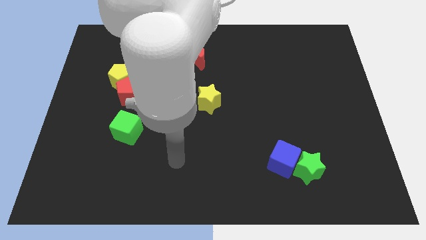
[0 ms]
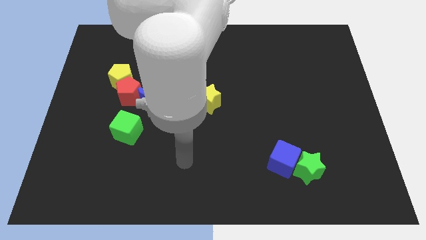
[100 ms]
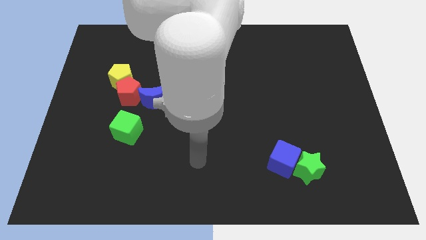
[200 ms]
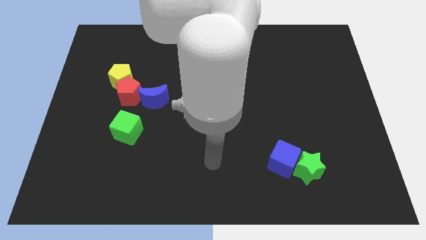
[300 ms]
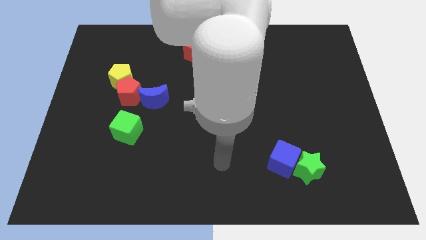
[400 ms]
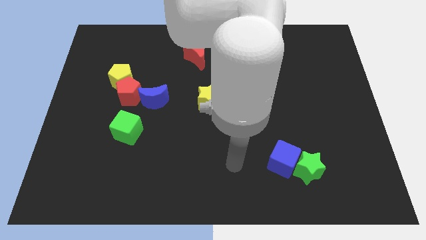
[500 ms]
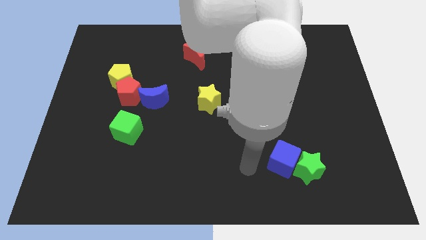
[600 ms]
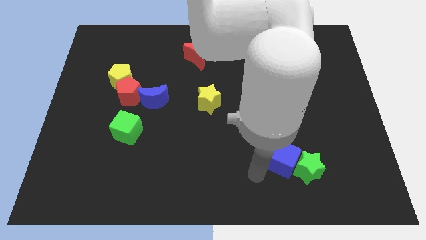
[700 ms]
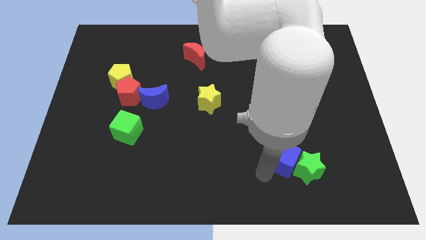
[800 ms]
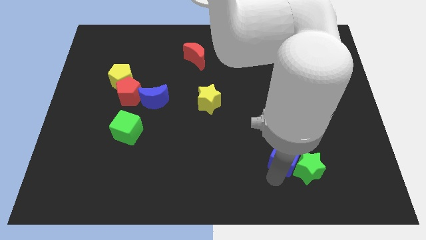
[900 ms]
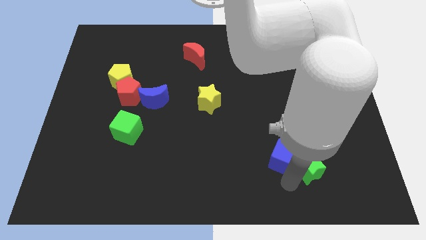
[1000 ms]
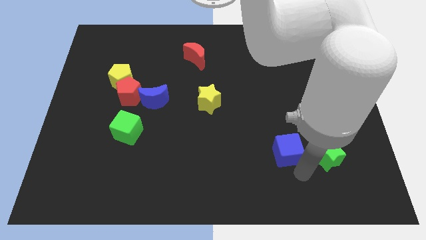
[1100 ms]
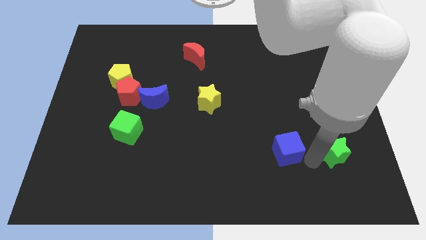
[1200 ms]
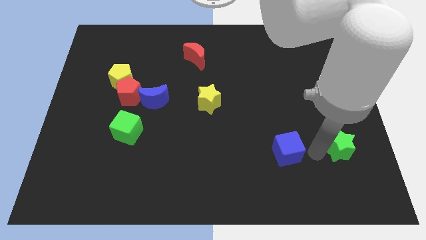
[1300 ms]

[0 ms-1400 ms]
move the blue cube away from the green star

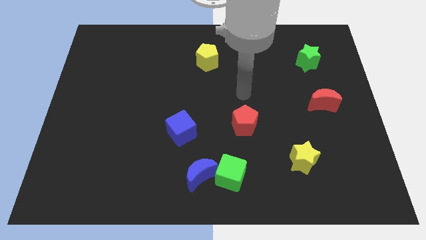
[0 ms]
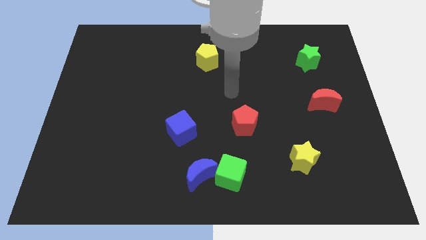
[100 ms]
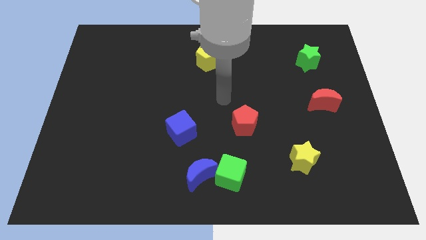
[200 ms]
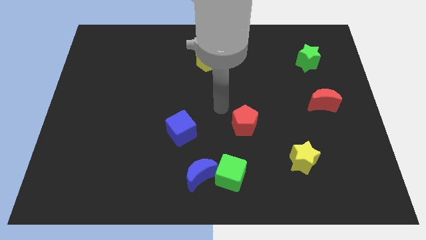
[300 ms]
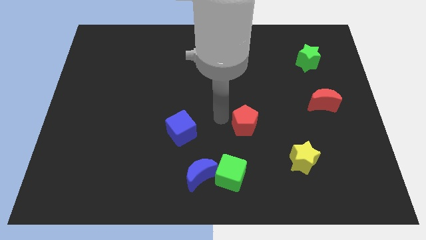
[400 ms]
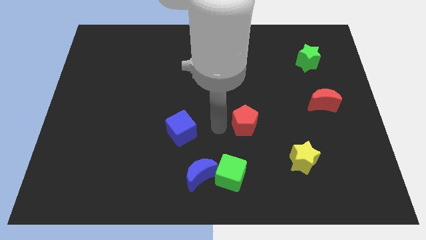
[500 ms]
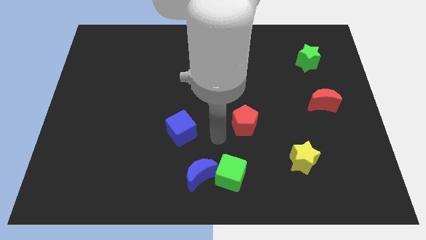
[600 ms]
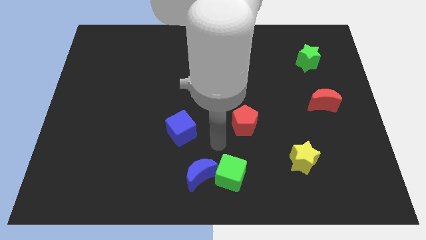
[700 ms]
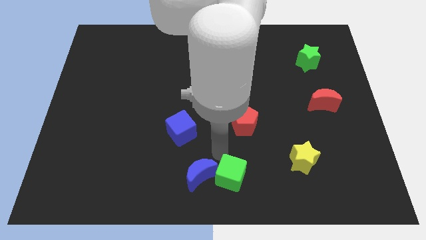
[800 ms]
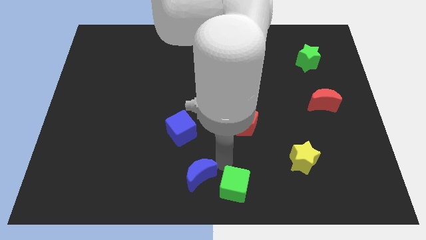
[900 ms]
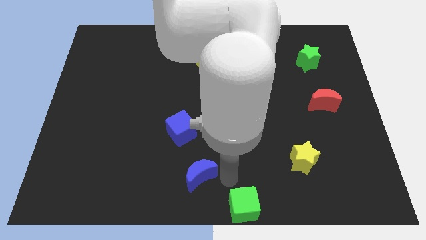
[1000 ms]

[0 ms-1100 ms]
separate the blue moon from the green cube

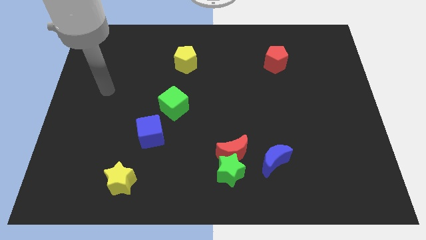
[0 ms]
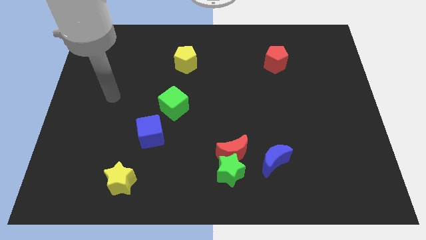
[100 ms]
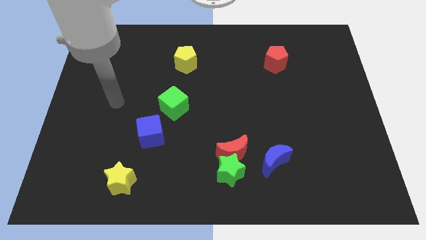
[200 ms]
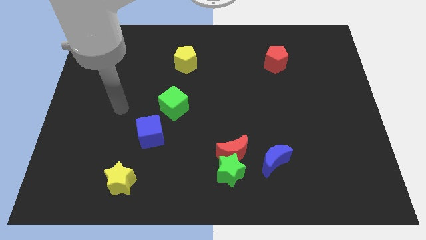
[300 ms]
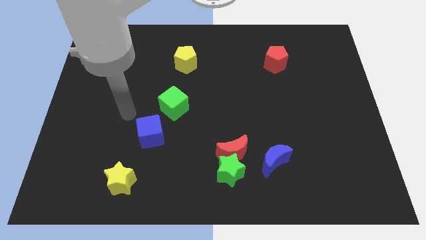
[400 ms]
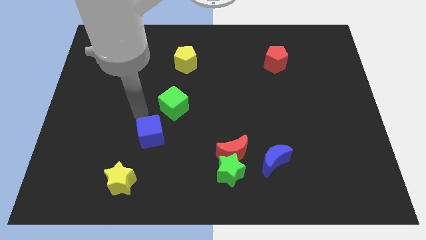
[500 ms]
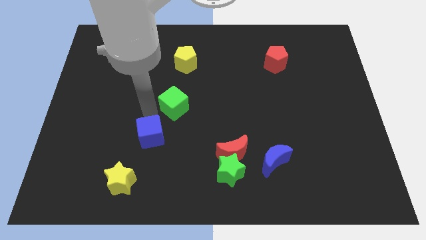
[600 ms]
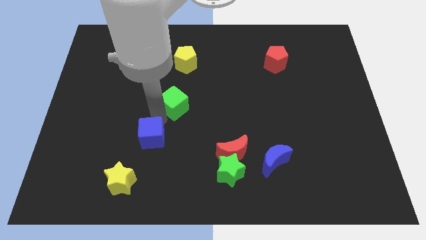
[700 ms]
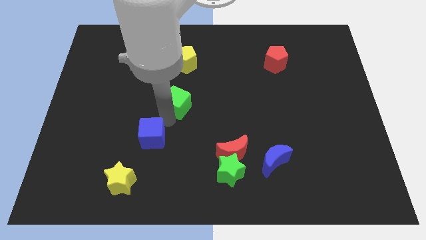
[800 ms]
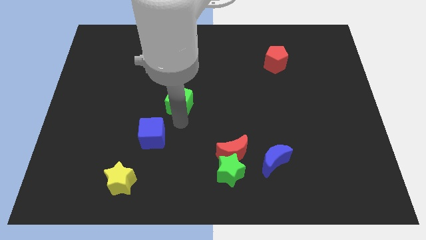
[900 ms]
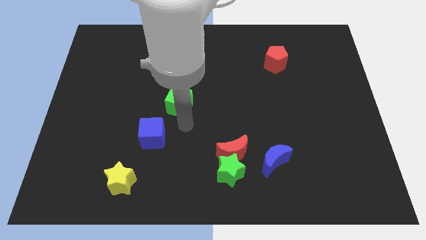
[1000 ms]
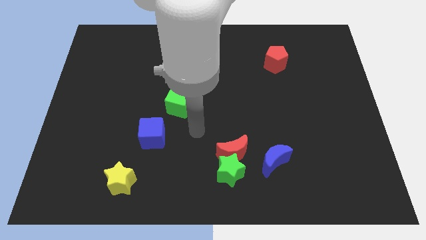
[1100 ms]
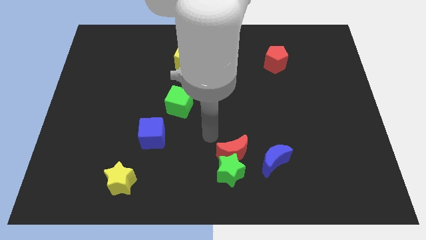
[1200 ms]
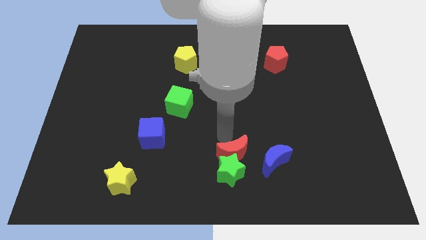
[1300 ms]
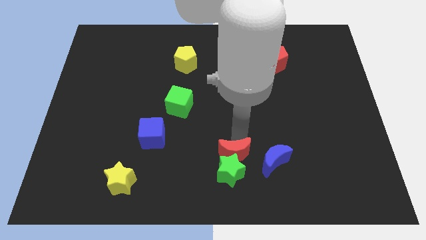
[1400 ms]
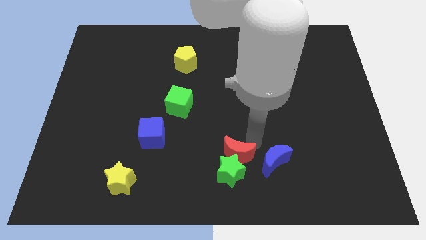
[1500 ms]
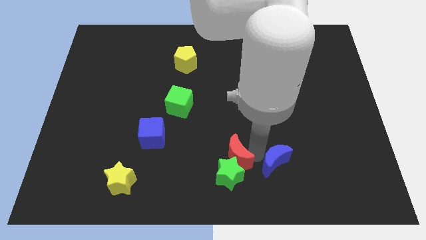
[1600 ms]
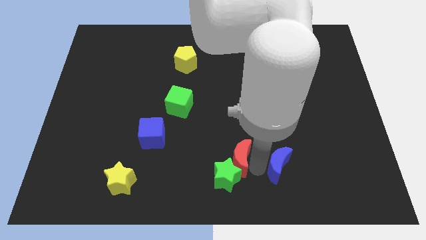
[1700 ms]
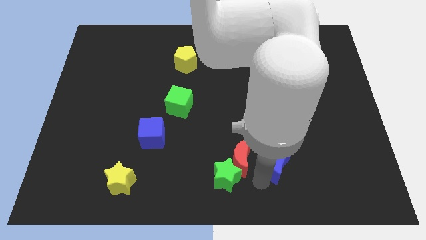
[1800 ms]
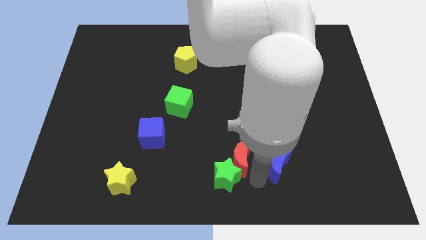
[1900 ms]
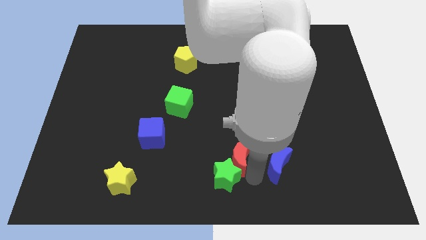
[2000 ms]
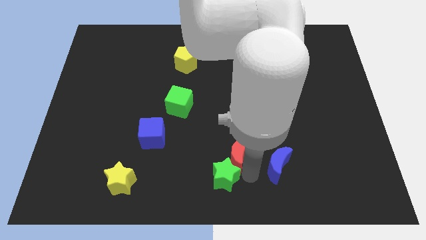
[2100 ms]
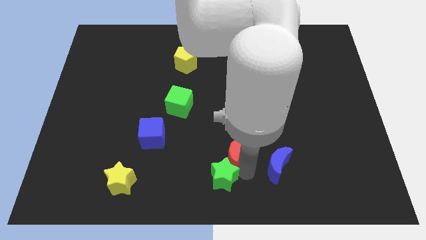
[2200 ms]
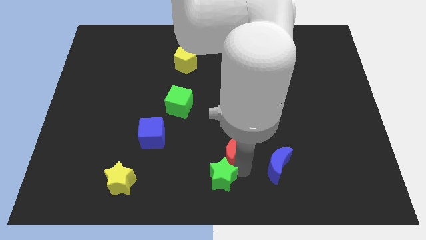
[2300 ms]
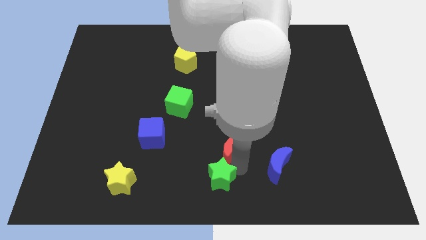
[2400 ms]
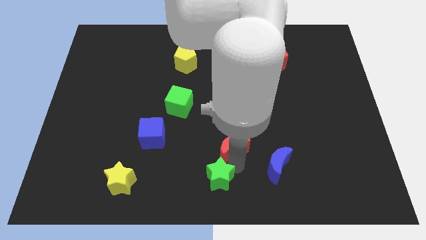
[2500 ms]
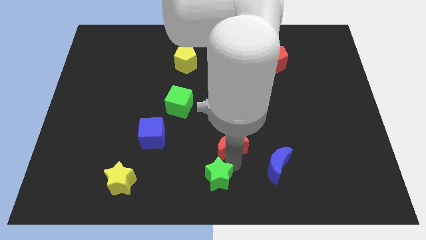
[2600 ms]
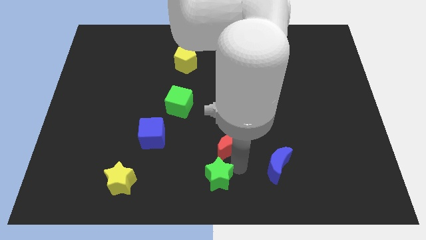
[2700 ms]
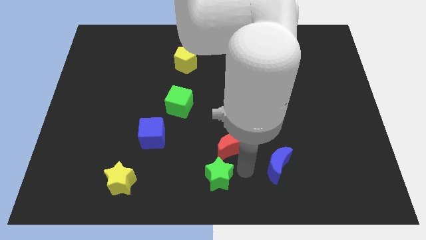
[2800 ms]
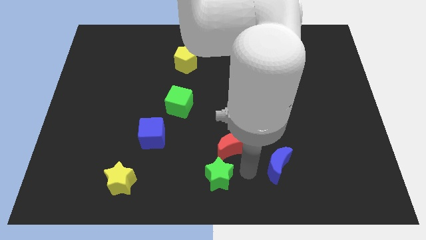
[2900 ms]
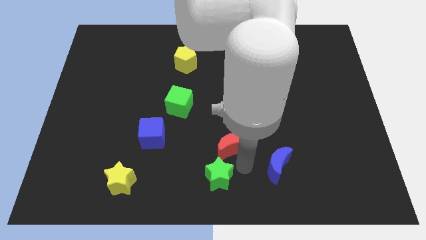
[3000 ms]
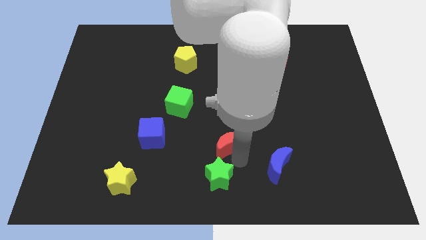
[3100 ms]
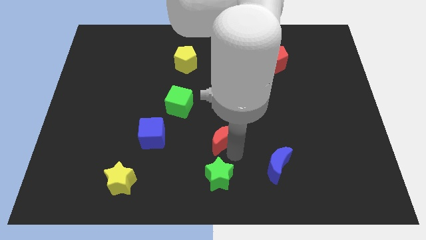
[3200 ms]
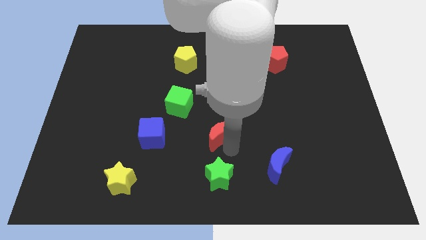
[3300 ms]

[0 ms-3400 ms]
pull the red moon apart from the green star and blue moon

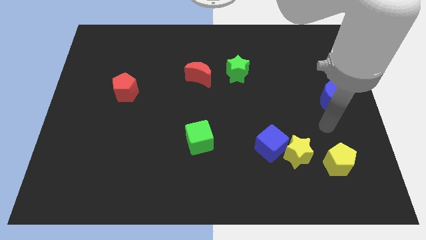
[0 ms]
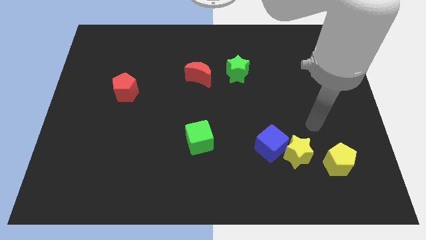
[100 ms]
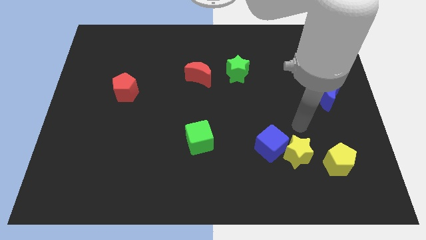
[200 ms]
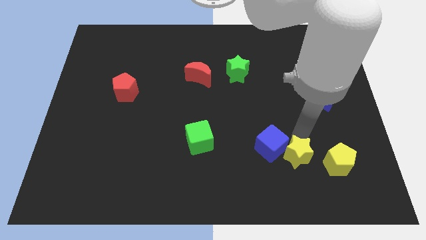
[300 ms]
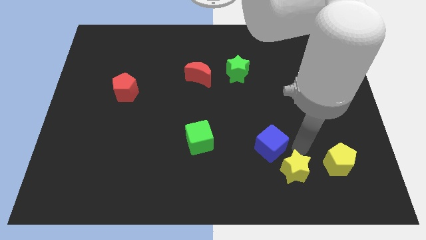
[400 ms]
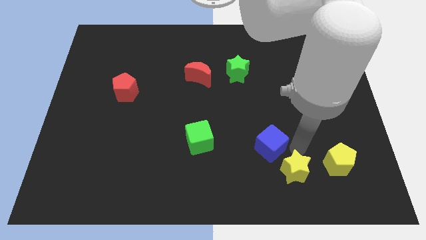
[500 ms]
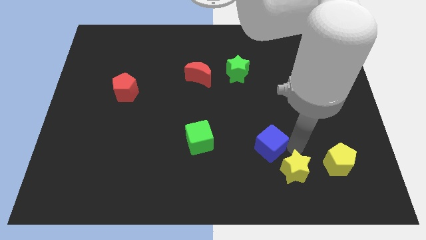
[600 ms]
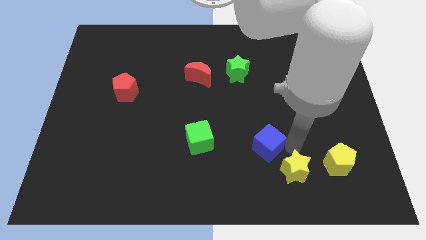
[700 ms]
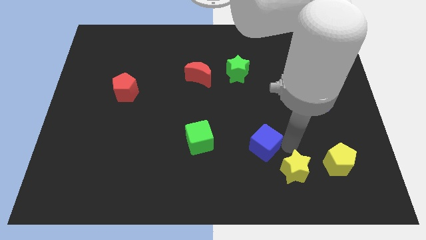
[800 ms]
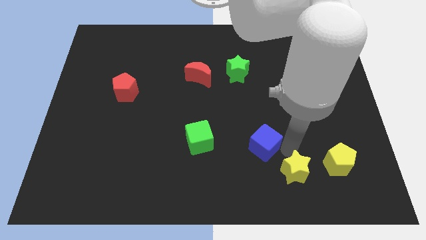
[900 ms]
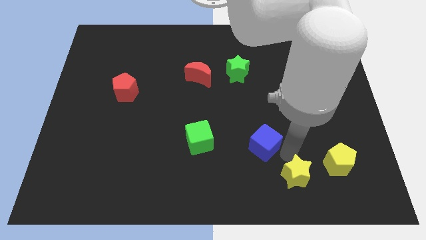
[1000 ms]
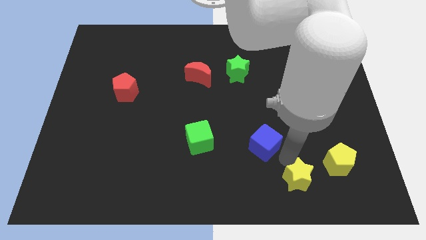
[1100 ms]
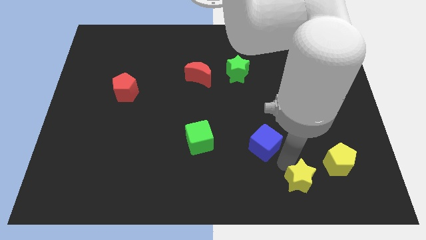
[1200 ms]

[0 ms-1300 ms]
separate the blue cube from the yellow star

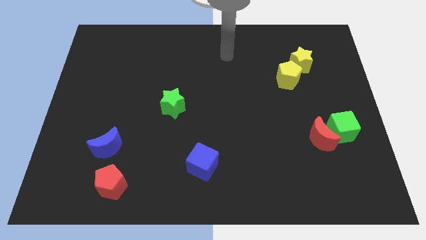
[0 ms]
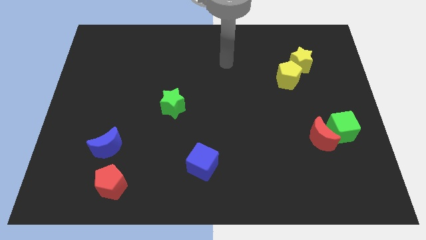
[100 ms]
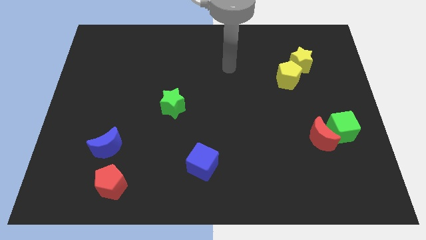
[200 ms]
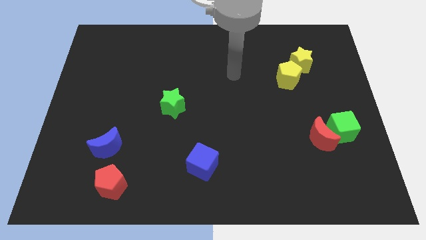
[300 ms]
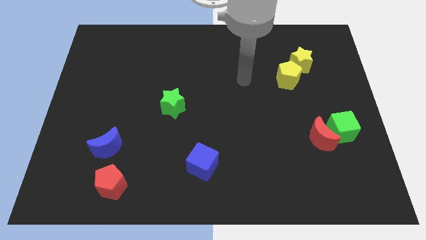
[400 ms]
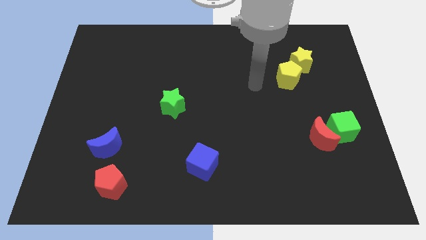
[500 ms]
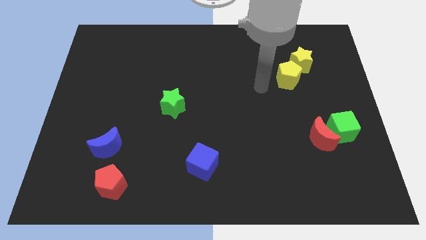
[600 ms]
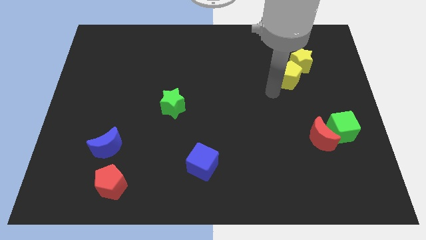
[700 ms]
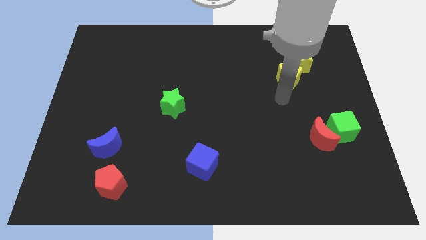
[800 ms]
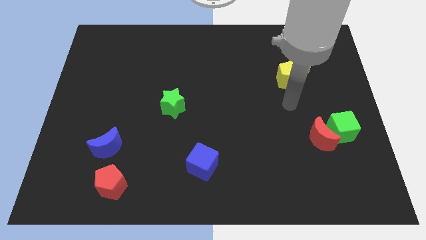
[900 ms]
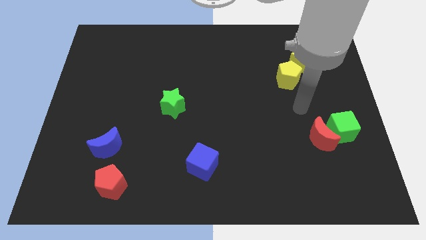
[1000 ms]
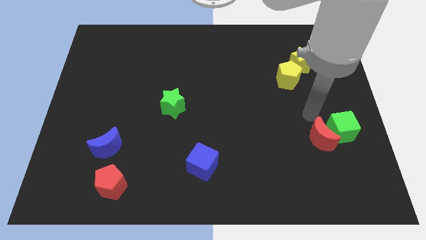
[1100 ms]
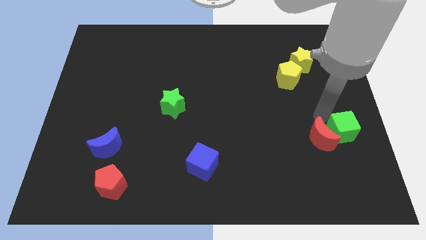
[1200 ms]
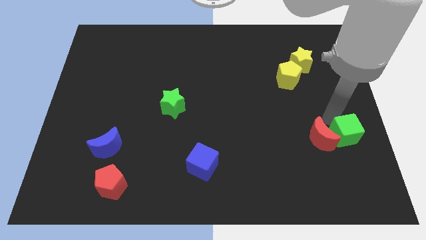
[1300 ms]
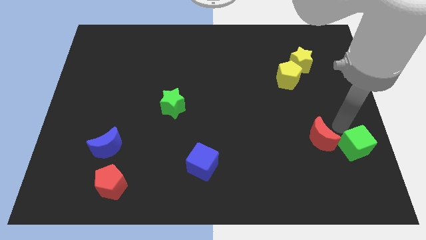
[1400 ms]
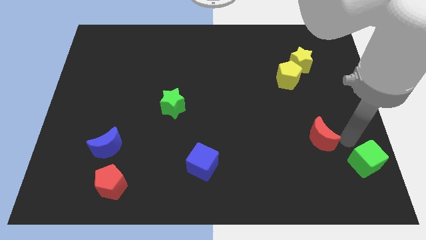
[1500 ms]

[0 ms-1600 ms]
move the red moon away from the green cube

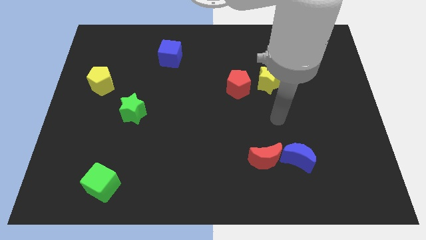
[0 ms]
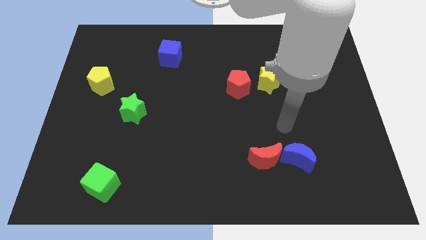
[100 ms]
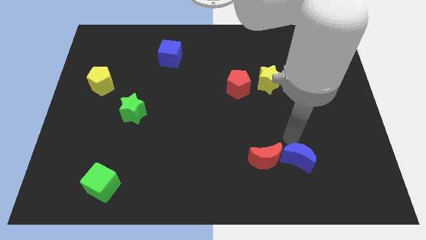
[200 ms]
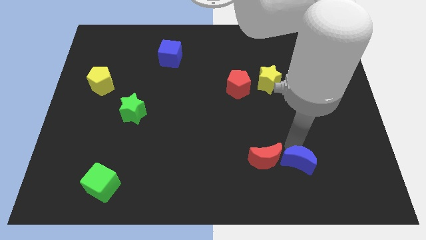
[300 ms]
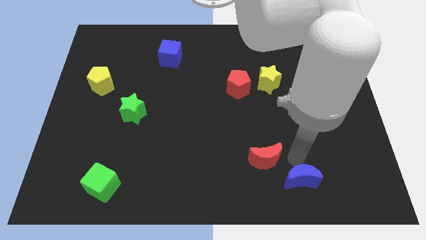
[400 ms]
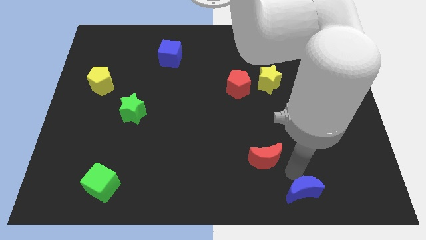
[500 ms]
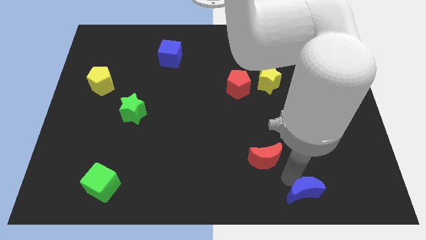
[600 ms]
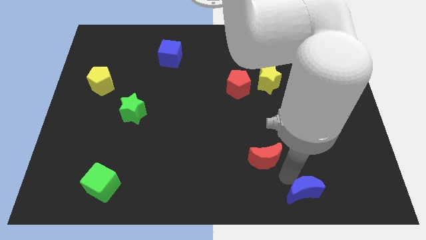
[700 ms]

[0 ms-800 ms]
separate the red moon from the blue moon
